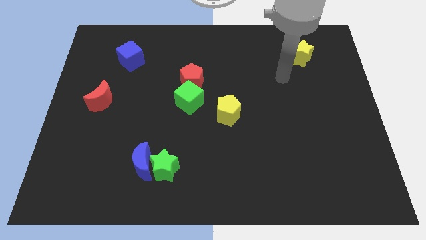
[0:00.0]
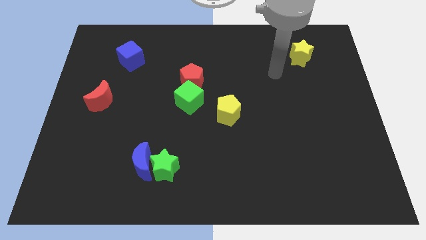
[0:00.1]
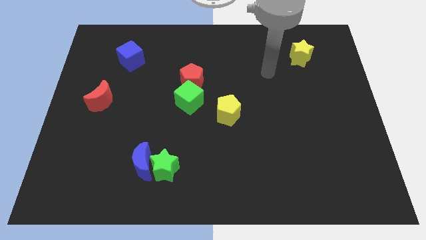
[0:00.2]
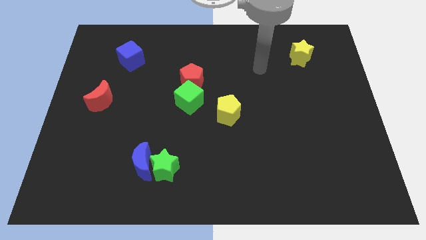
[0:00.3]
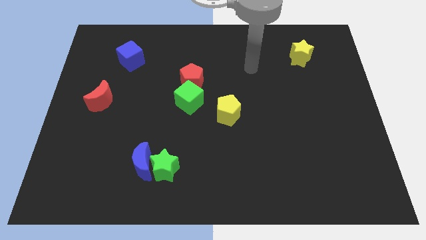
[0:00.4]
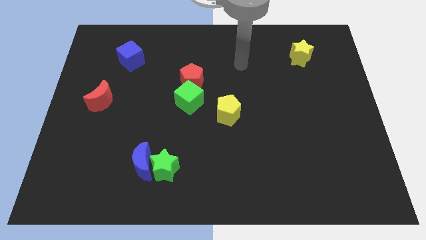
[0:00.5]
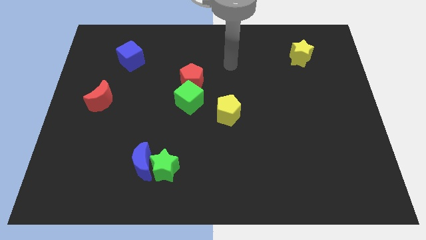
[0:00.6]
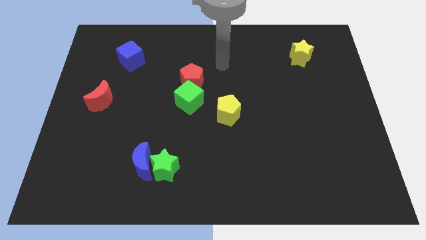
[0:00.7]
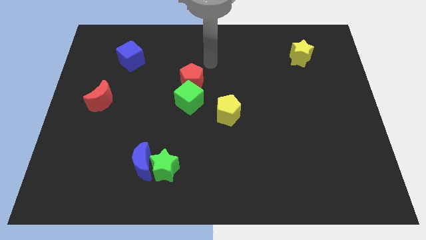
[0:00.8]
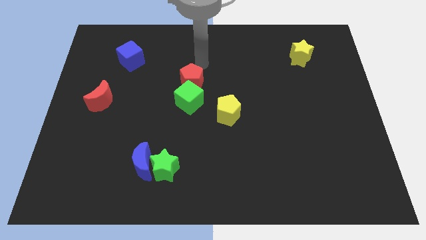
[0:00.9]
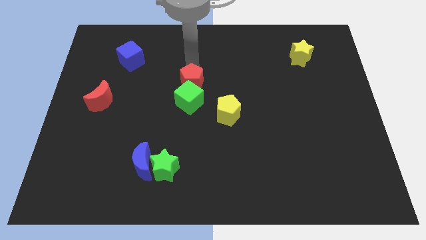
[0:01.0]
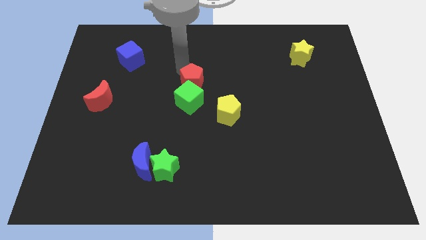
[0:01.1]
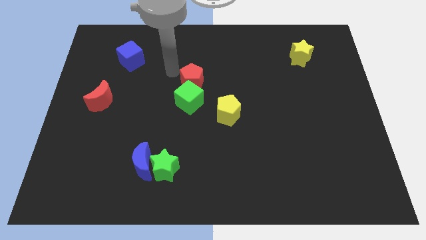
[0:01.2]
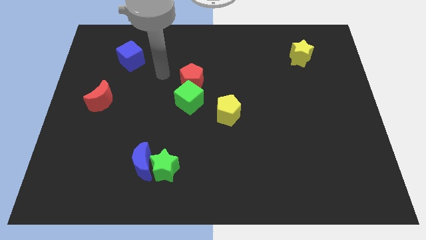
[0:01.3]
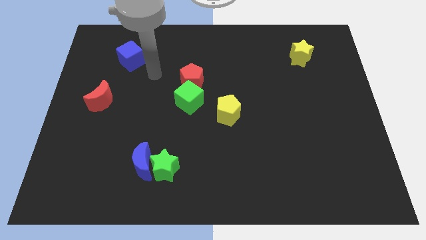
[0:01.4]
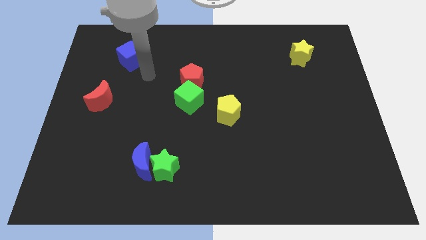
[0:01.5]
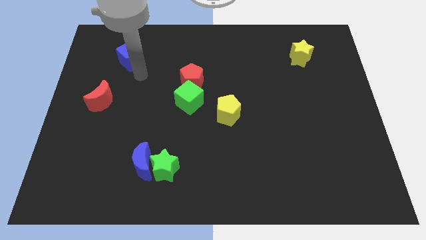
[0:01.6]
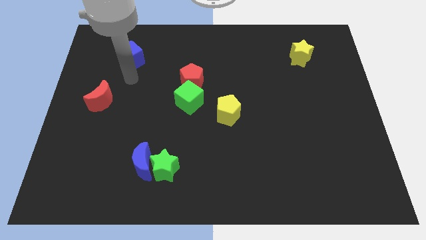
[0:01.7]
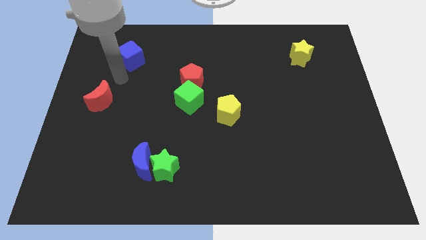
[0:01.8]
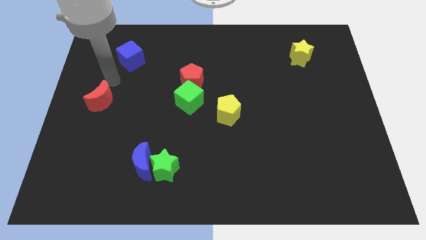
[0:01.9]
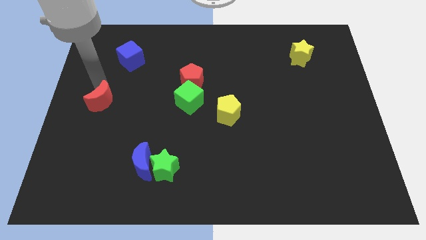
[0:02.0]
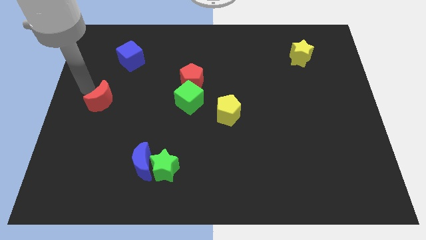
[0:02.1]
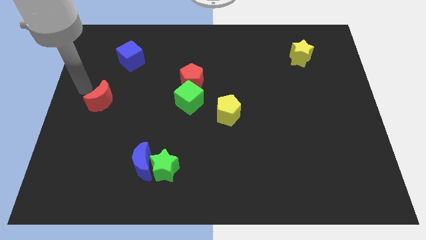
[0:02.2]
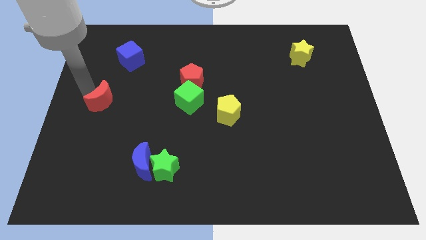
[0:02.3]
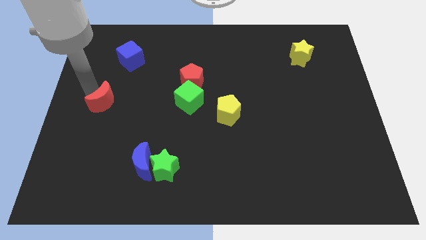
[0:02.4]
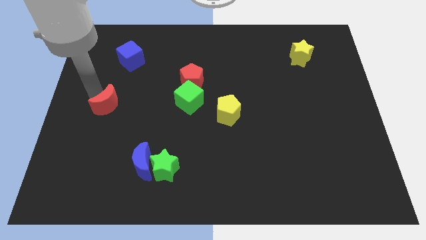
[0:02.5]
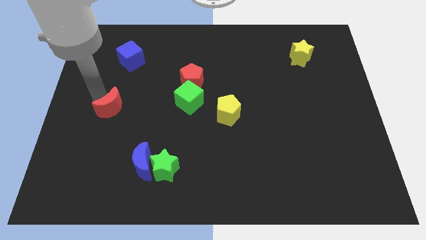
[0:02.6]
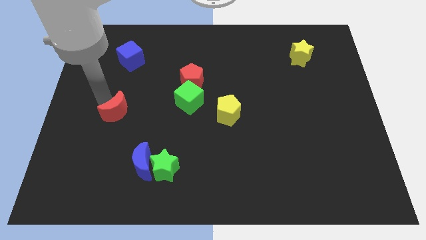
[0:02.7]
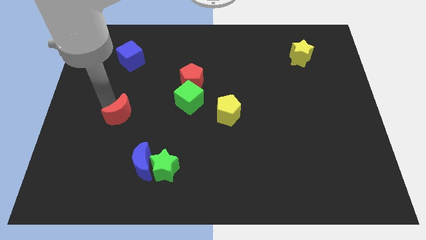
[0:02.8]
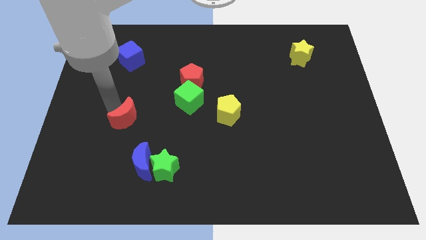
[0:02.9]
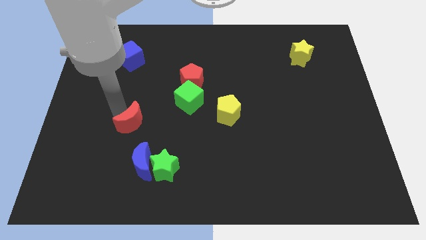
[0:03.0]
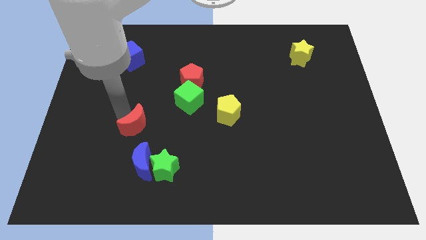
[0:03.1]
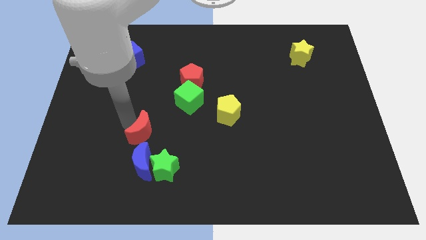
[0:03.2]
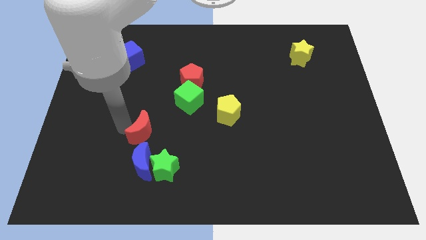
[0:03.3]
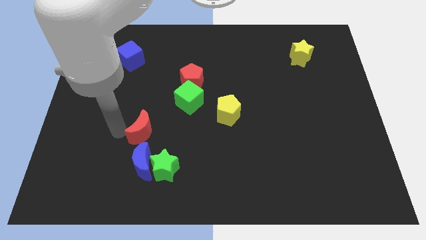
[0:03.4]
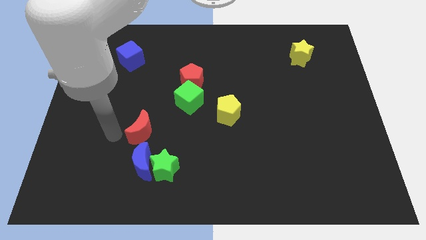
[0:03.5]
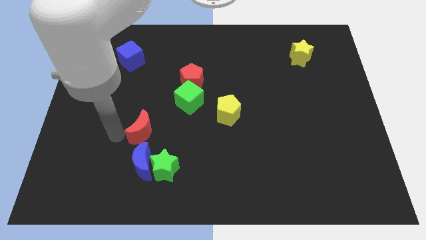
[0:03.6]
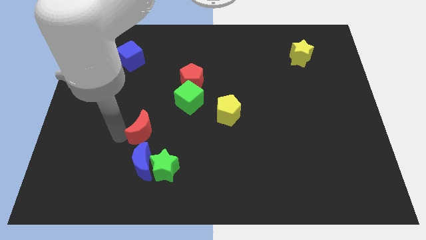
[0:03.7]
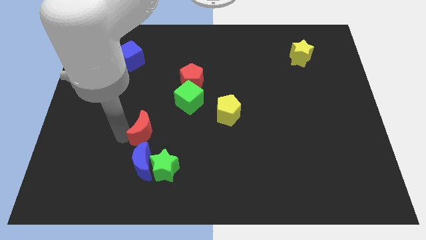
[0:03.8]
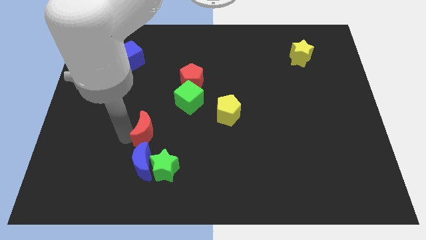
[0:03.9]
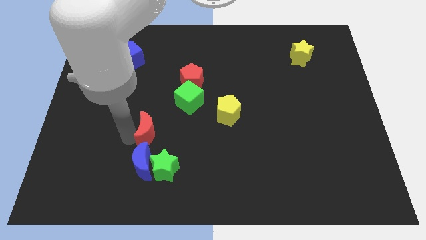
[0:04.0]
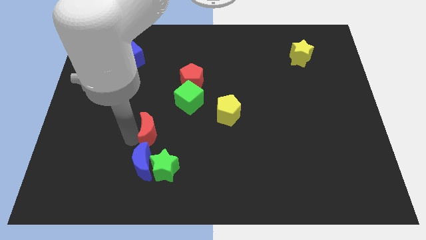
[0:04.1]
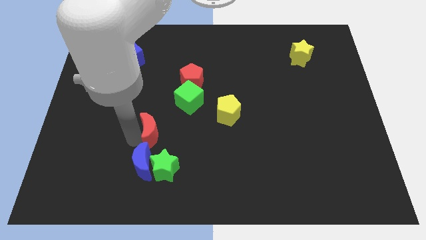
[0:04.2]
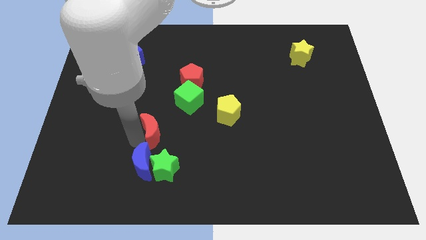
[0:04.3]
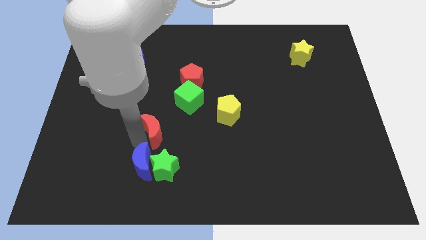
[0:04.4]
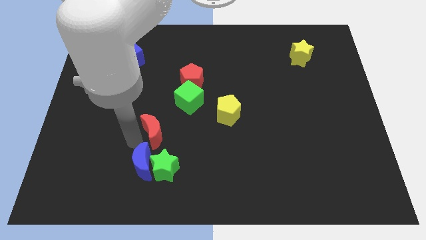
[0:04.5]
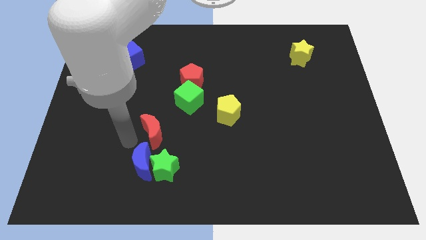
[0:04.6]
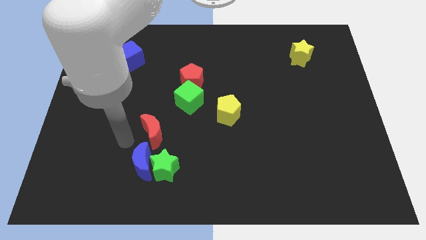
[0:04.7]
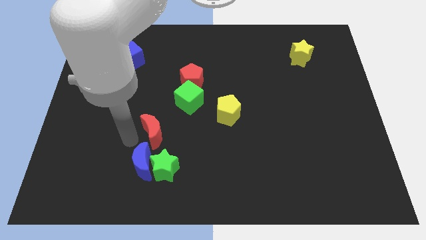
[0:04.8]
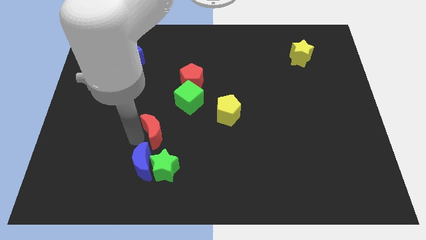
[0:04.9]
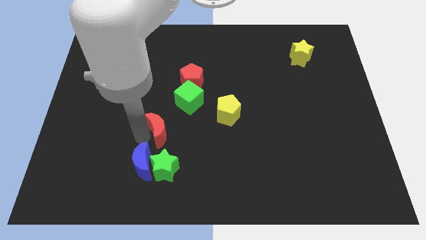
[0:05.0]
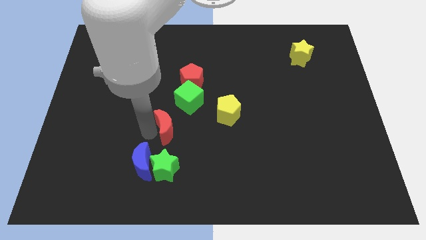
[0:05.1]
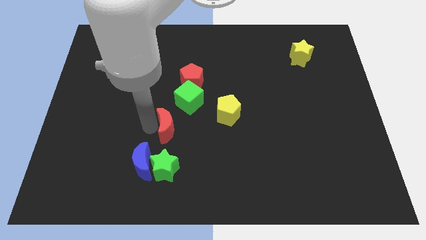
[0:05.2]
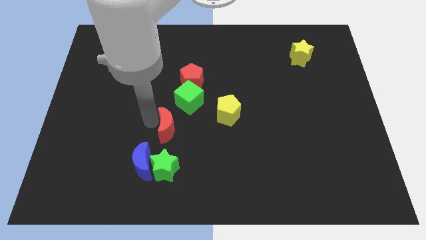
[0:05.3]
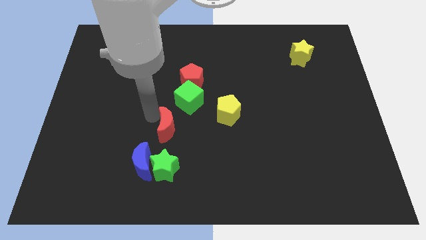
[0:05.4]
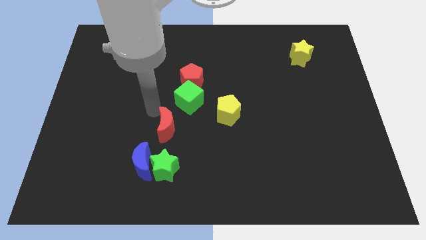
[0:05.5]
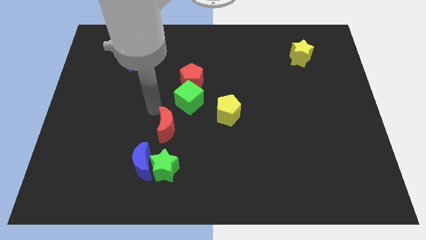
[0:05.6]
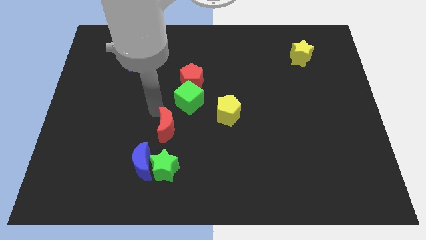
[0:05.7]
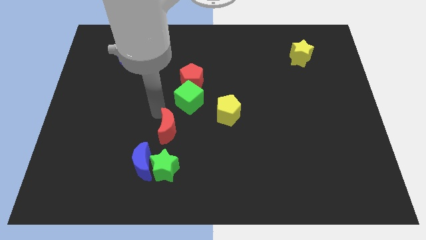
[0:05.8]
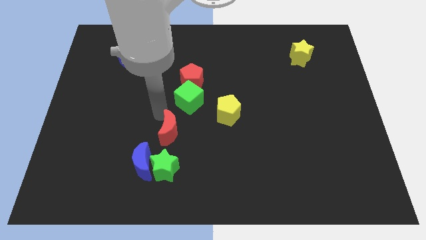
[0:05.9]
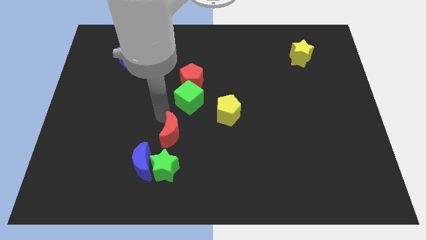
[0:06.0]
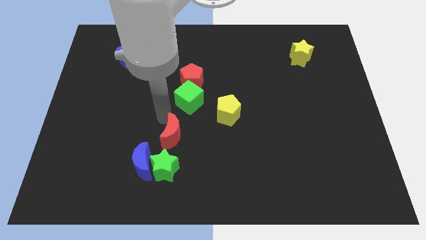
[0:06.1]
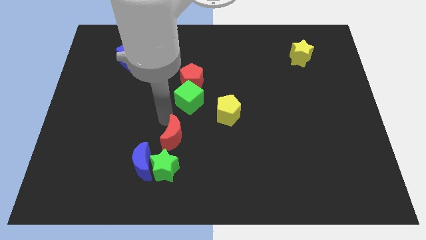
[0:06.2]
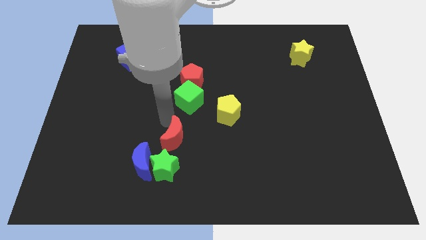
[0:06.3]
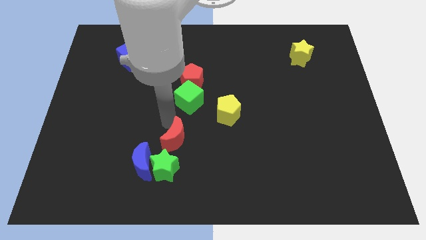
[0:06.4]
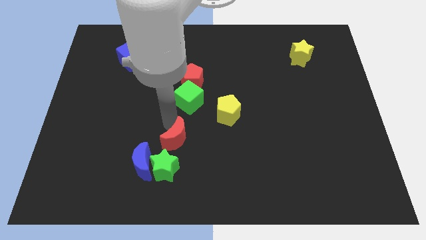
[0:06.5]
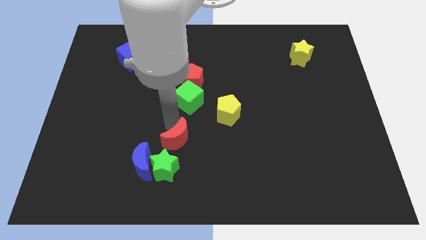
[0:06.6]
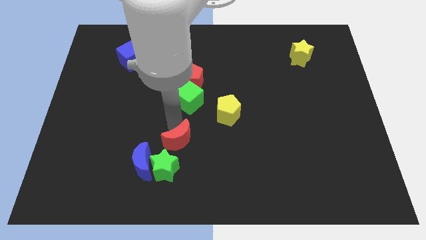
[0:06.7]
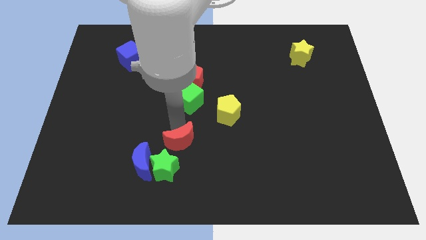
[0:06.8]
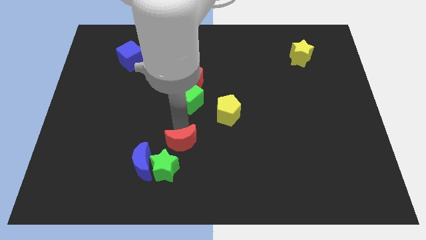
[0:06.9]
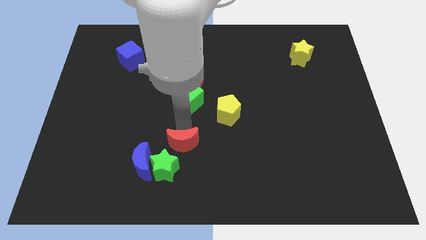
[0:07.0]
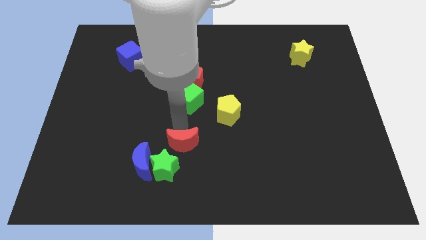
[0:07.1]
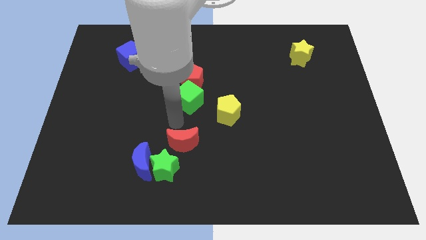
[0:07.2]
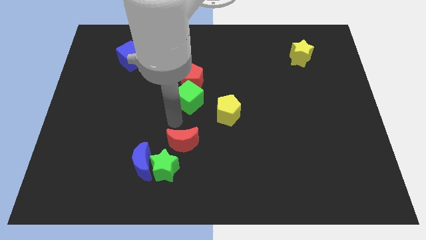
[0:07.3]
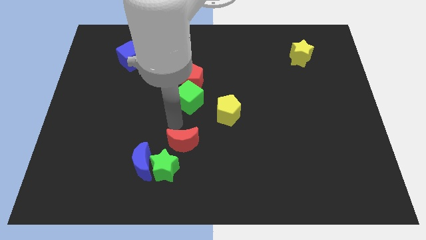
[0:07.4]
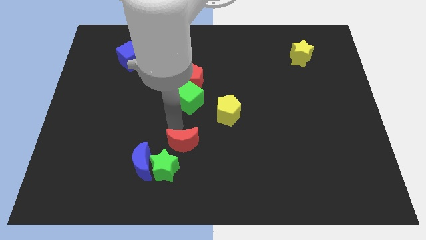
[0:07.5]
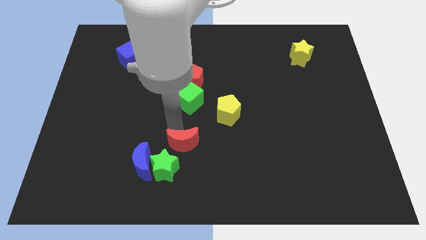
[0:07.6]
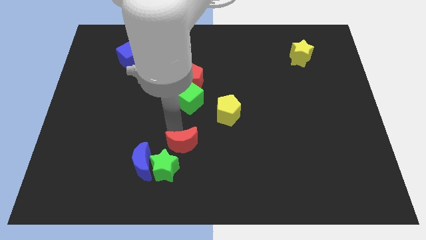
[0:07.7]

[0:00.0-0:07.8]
put the red moon to the right of the blue moon
